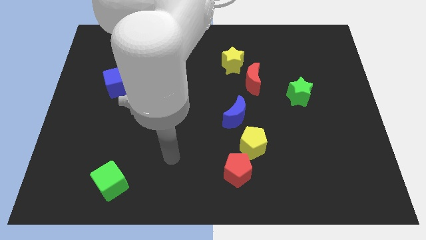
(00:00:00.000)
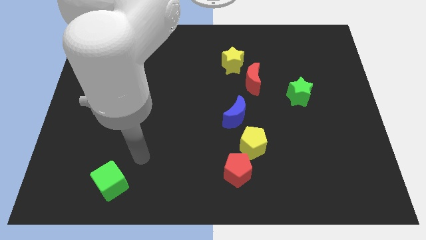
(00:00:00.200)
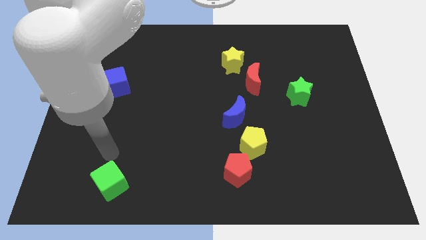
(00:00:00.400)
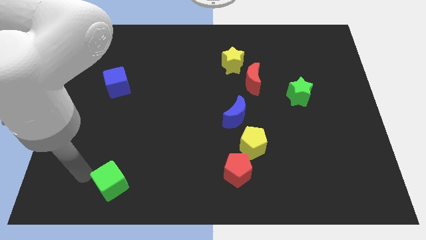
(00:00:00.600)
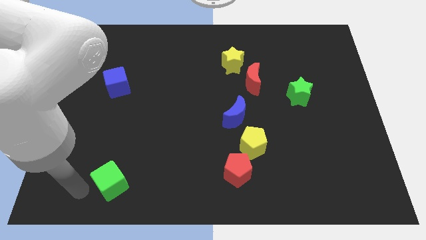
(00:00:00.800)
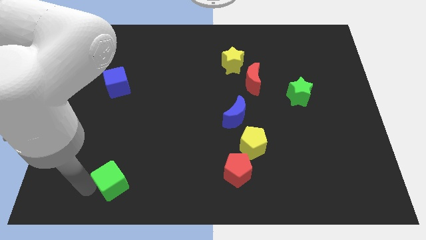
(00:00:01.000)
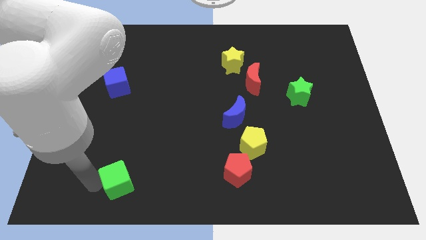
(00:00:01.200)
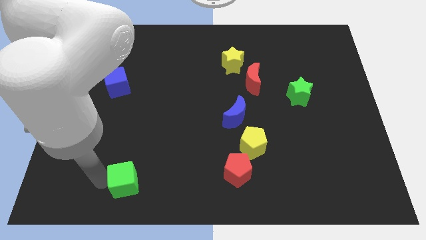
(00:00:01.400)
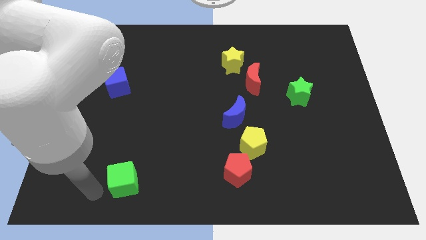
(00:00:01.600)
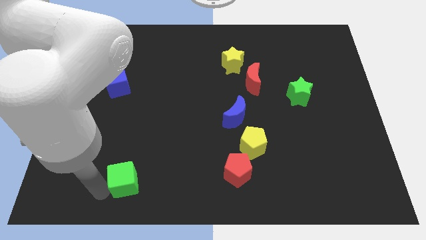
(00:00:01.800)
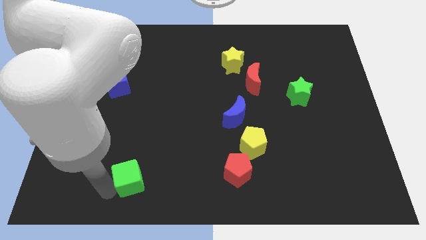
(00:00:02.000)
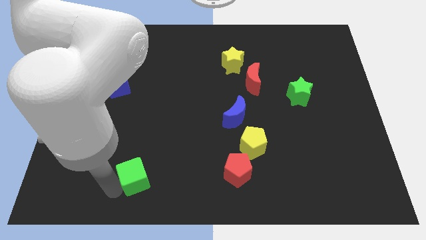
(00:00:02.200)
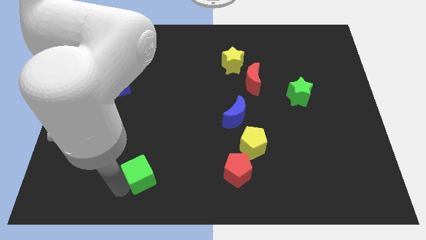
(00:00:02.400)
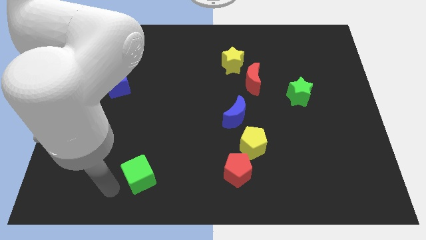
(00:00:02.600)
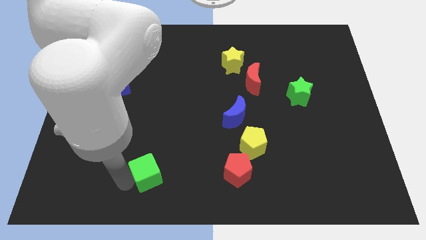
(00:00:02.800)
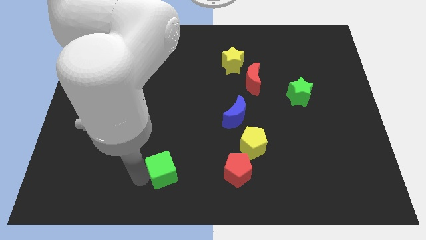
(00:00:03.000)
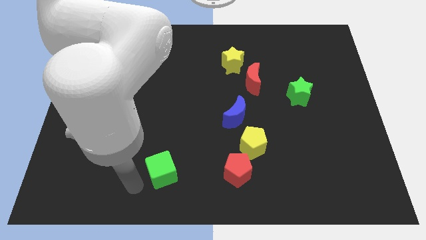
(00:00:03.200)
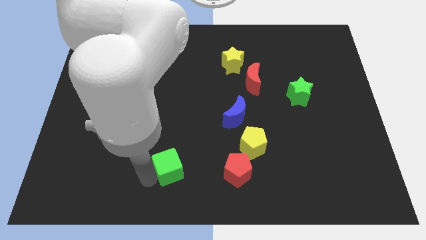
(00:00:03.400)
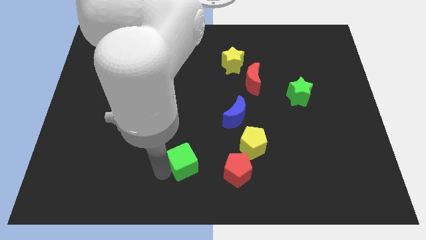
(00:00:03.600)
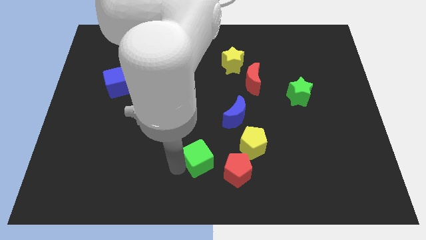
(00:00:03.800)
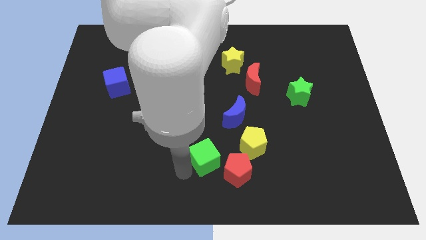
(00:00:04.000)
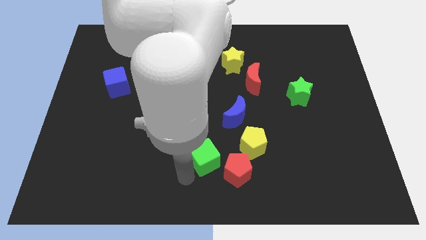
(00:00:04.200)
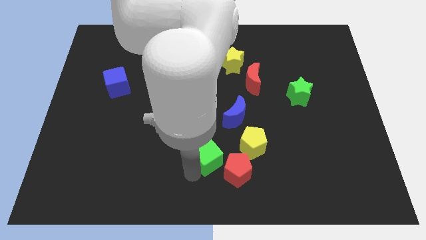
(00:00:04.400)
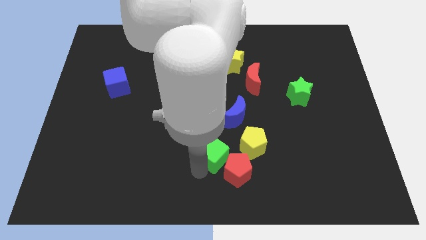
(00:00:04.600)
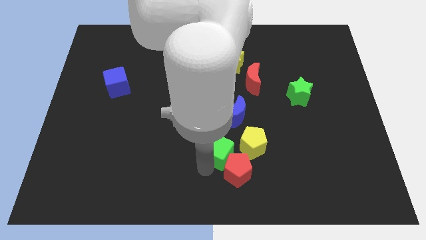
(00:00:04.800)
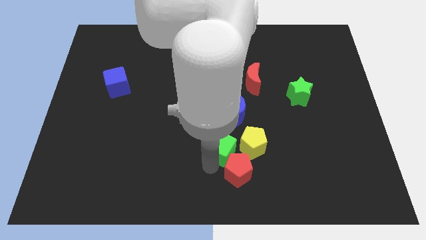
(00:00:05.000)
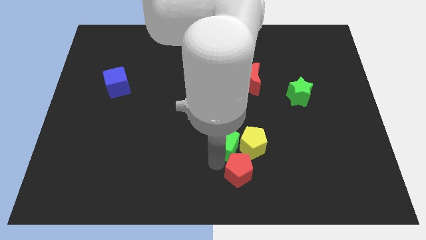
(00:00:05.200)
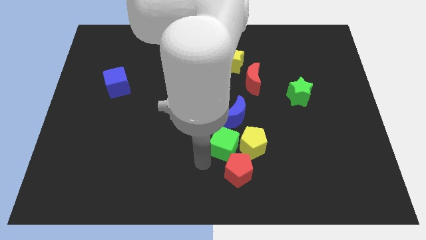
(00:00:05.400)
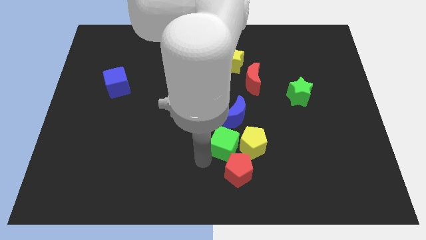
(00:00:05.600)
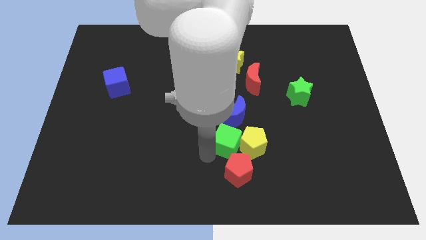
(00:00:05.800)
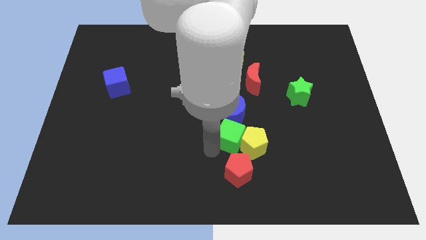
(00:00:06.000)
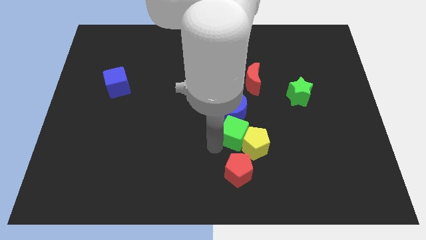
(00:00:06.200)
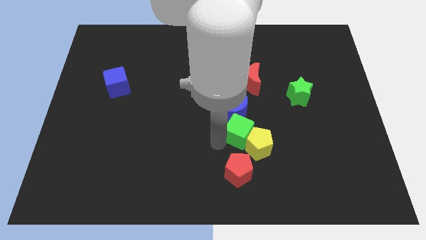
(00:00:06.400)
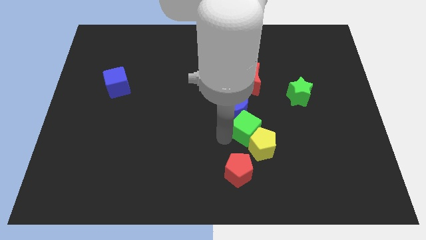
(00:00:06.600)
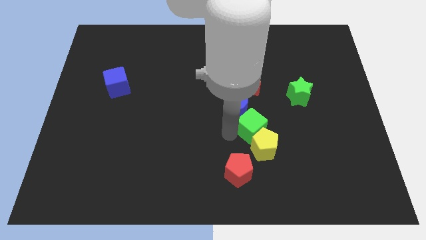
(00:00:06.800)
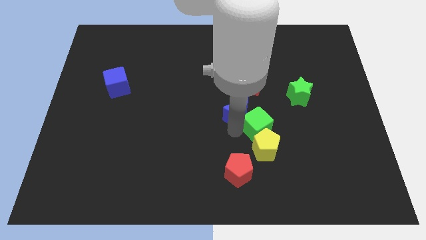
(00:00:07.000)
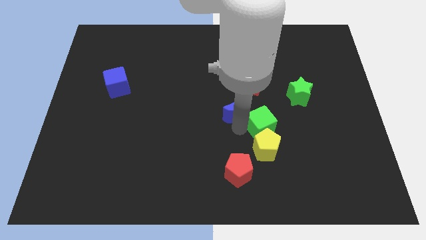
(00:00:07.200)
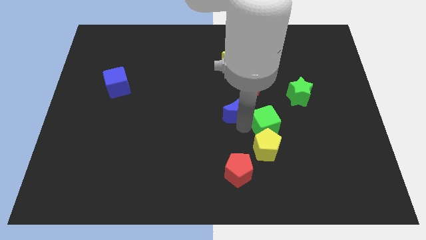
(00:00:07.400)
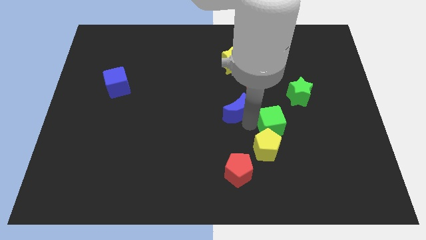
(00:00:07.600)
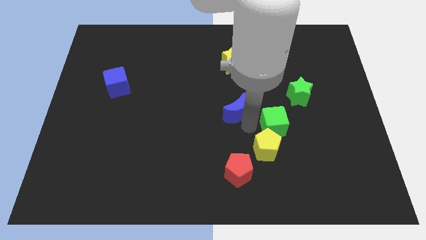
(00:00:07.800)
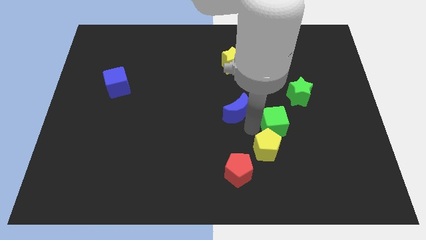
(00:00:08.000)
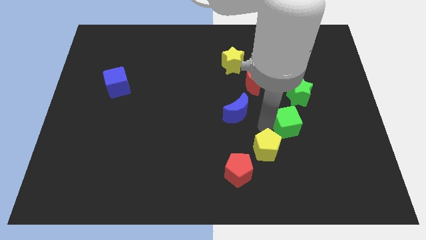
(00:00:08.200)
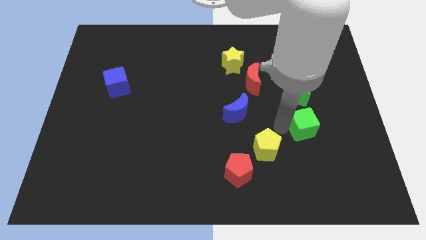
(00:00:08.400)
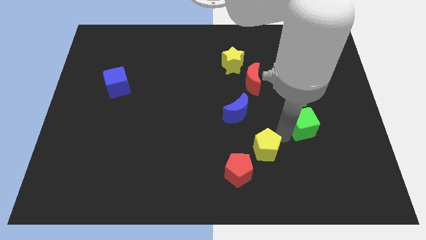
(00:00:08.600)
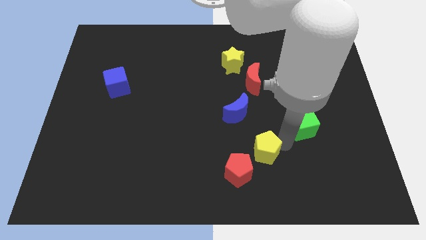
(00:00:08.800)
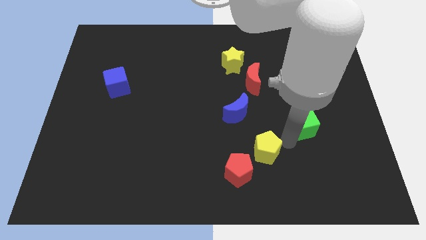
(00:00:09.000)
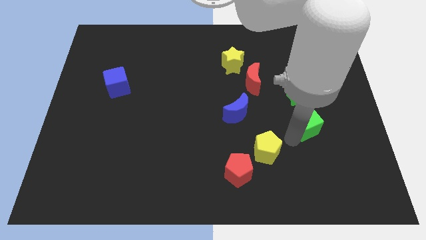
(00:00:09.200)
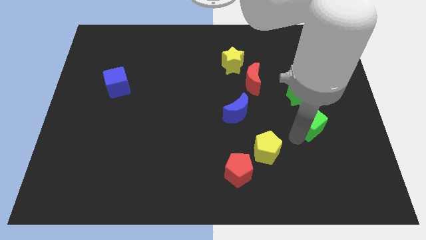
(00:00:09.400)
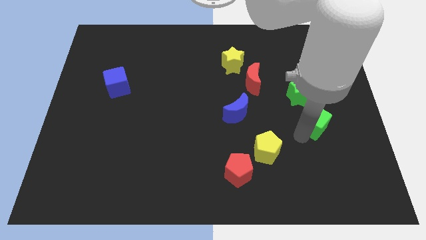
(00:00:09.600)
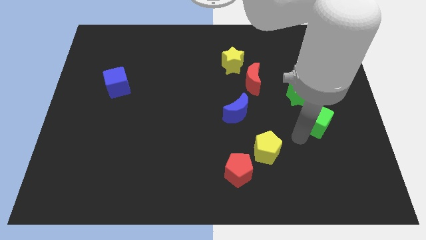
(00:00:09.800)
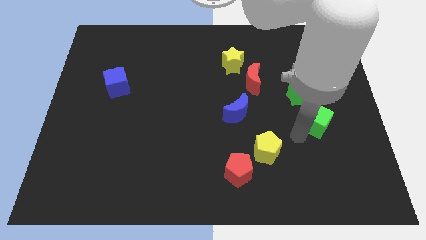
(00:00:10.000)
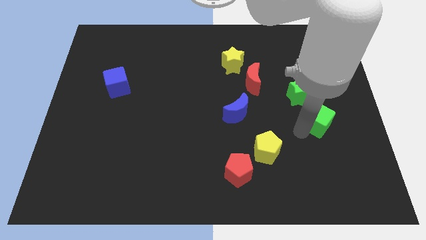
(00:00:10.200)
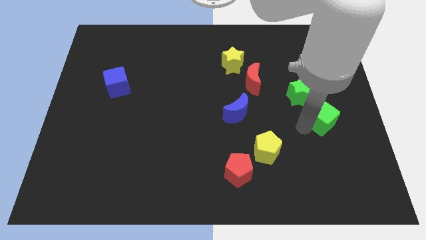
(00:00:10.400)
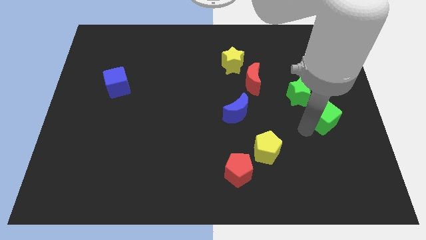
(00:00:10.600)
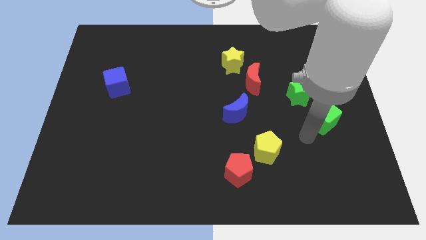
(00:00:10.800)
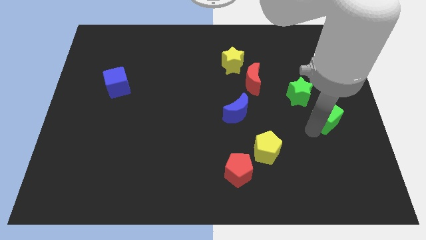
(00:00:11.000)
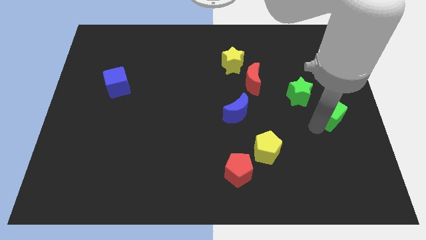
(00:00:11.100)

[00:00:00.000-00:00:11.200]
slide the green cube to the center right

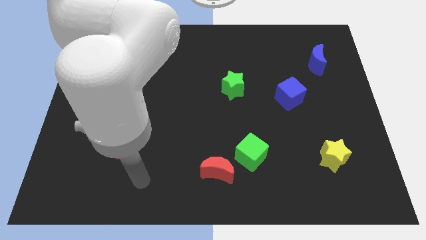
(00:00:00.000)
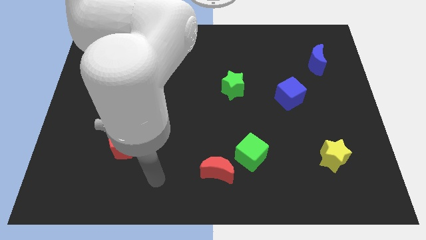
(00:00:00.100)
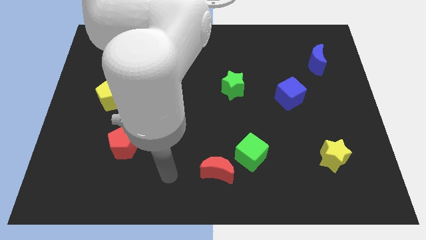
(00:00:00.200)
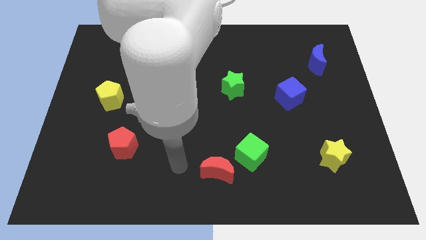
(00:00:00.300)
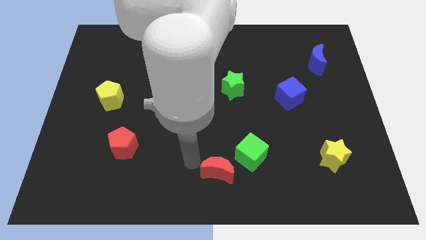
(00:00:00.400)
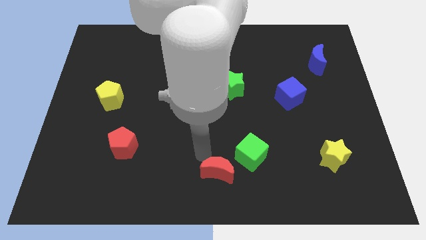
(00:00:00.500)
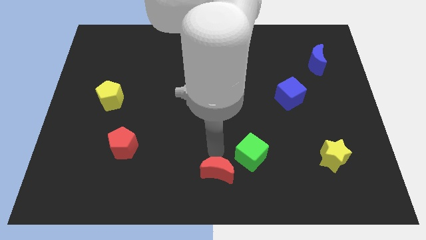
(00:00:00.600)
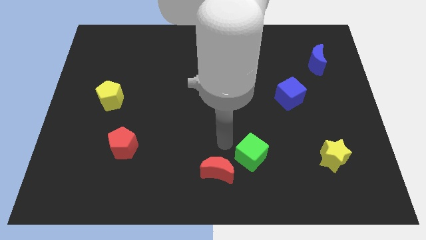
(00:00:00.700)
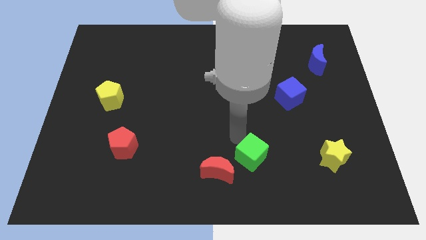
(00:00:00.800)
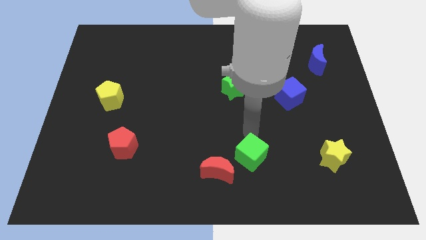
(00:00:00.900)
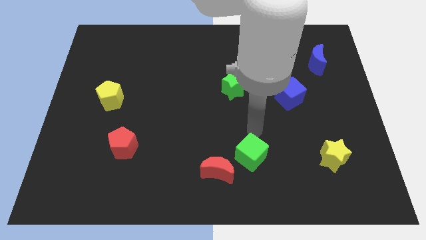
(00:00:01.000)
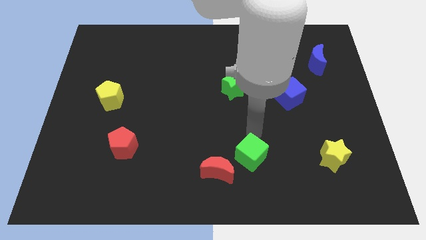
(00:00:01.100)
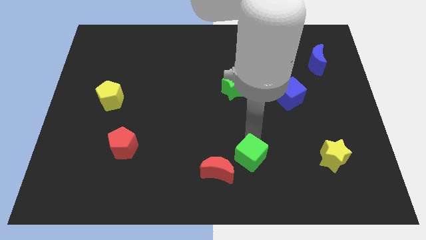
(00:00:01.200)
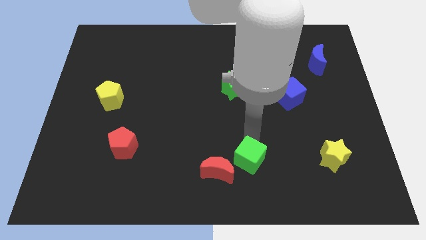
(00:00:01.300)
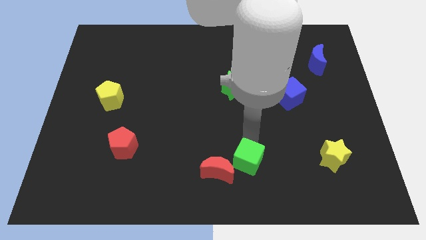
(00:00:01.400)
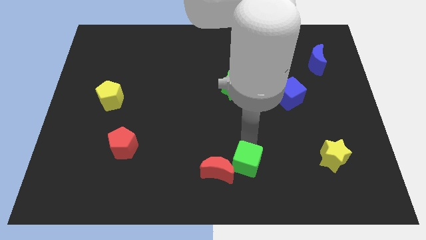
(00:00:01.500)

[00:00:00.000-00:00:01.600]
move the green cube to the bottom side
